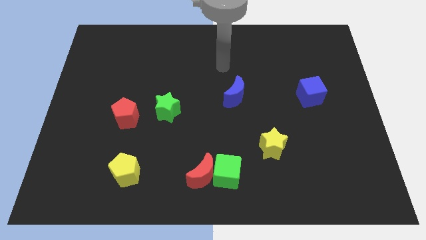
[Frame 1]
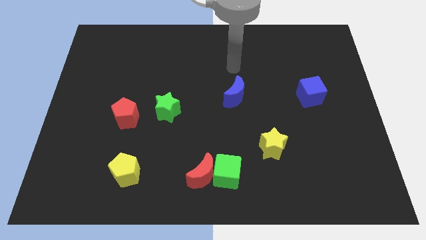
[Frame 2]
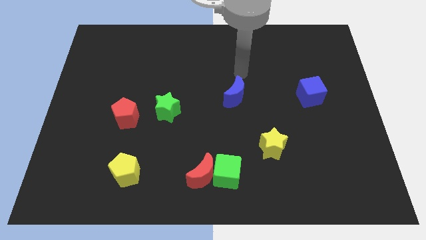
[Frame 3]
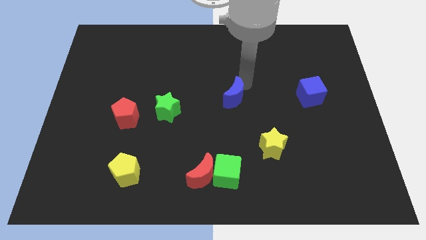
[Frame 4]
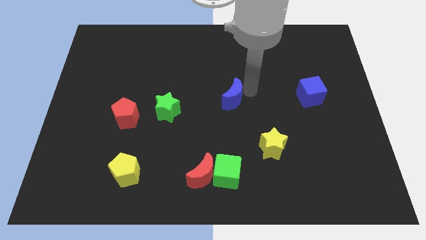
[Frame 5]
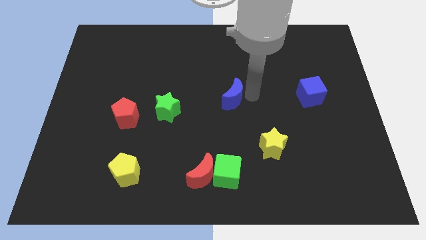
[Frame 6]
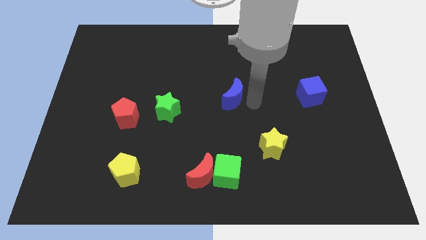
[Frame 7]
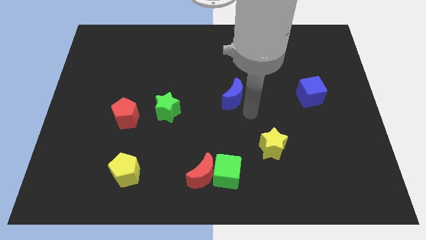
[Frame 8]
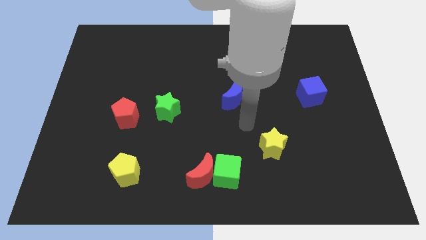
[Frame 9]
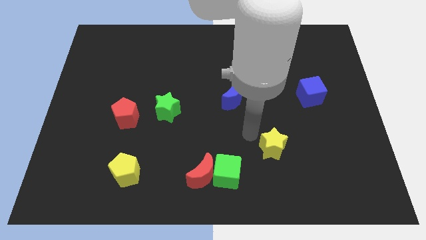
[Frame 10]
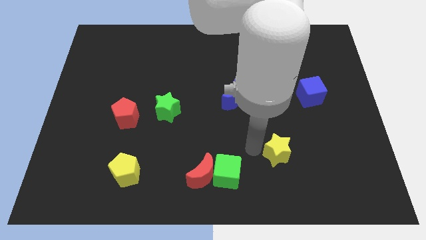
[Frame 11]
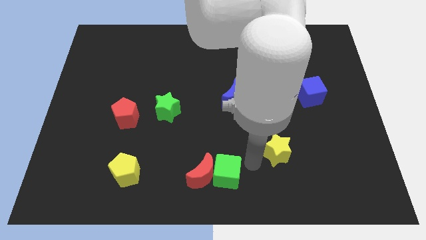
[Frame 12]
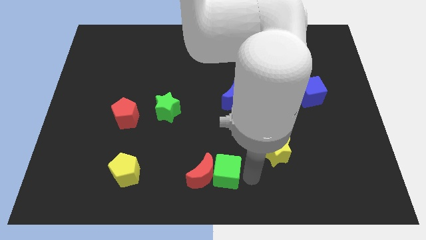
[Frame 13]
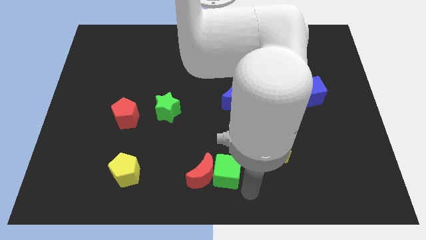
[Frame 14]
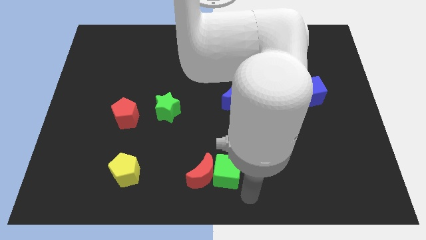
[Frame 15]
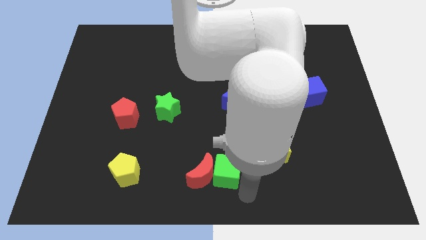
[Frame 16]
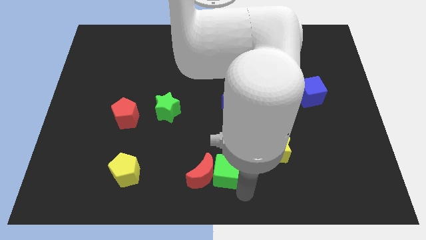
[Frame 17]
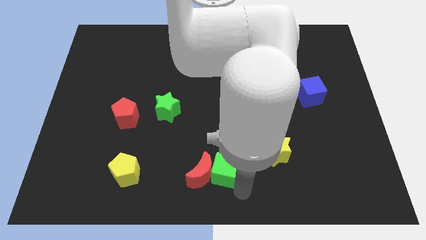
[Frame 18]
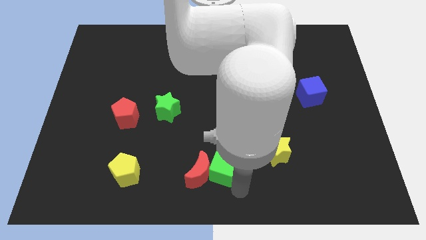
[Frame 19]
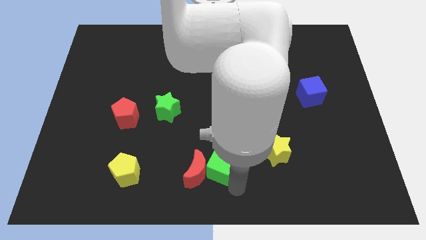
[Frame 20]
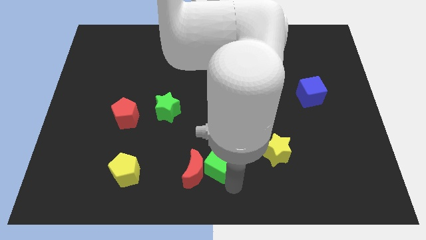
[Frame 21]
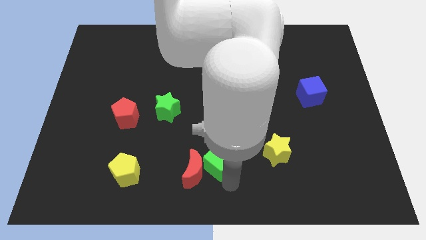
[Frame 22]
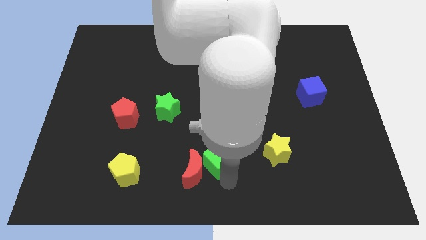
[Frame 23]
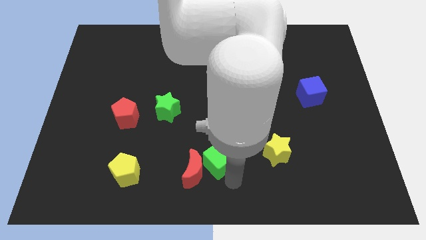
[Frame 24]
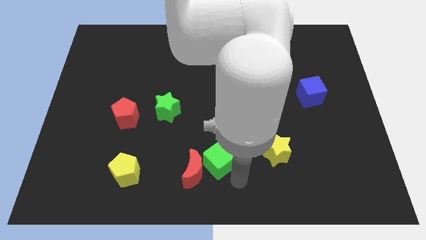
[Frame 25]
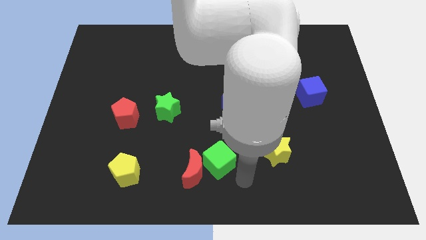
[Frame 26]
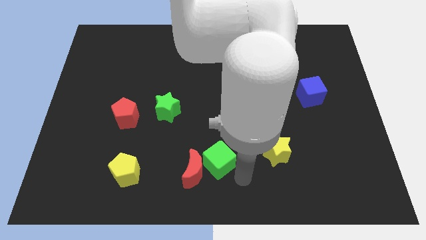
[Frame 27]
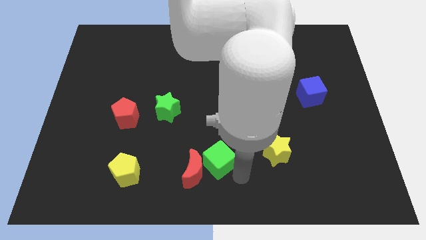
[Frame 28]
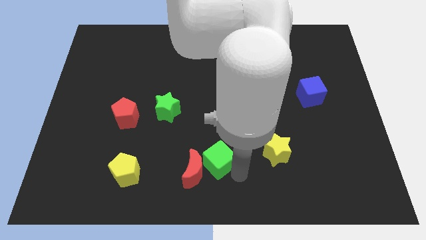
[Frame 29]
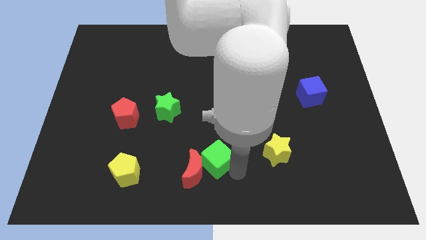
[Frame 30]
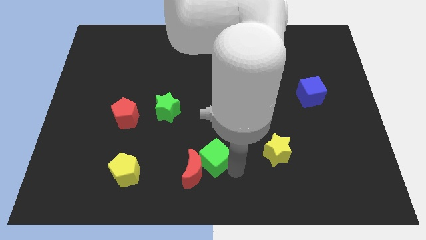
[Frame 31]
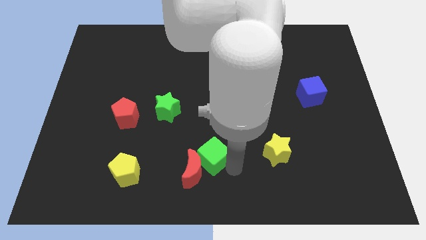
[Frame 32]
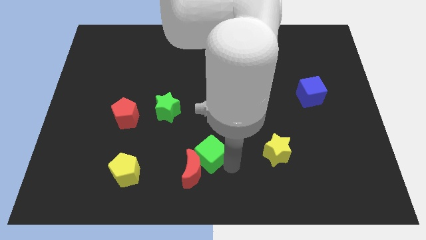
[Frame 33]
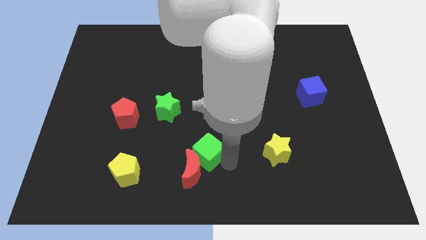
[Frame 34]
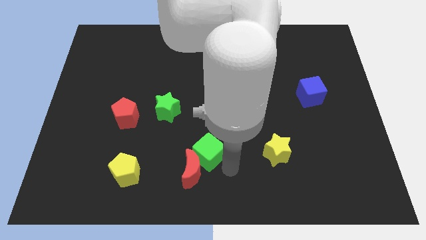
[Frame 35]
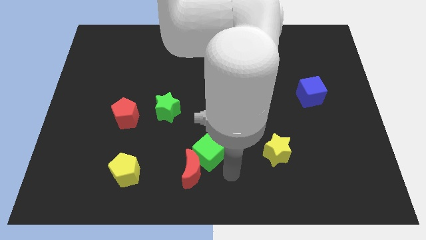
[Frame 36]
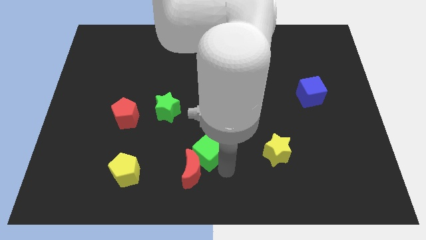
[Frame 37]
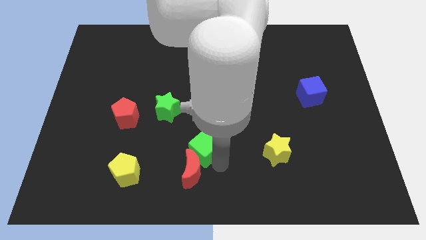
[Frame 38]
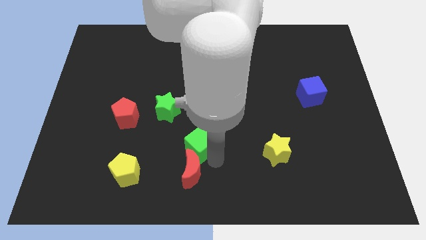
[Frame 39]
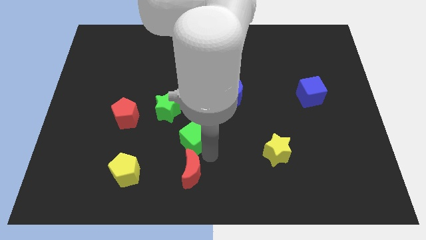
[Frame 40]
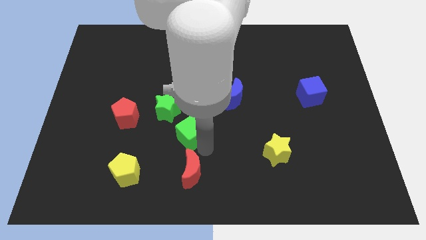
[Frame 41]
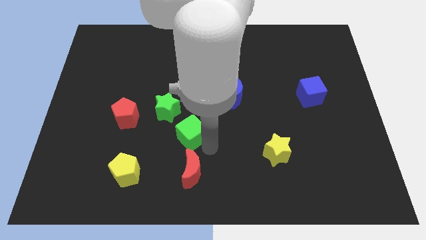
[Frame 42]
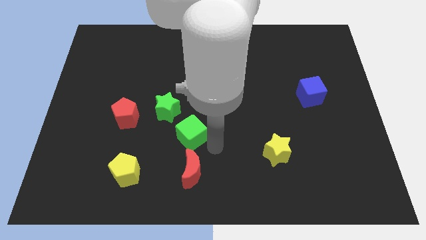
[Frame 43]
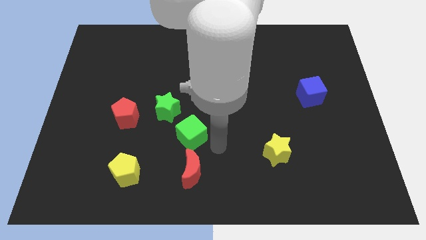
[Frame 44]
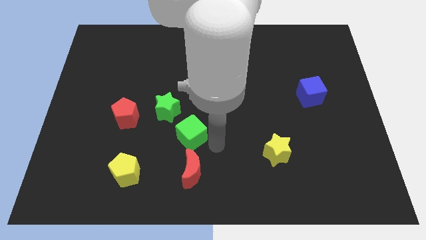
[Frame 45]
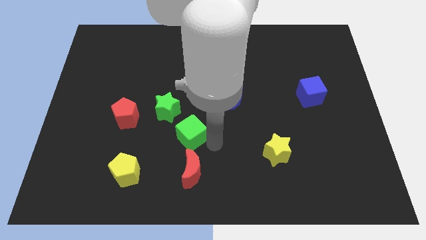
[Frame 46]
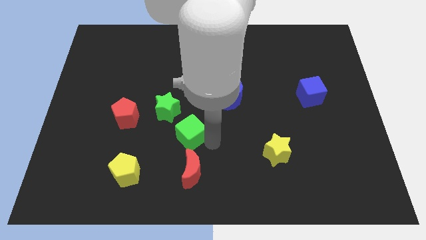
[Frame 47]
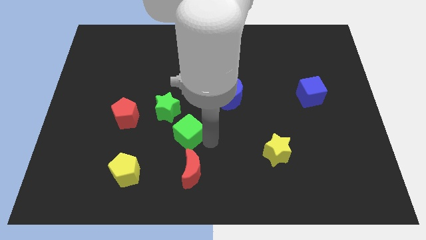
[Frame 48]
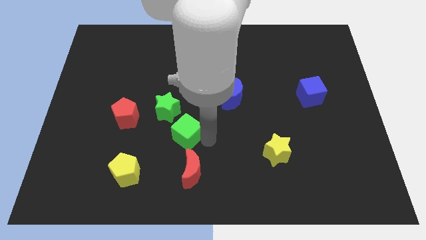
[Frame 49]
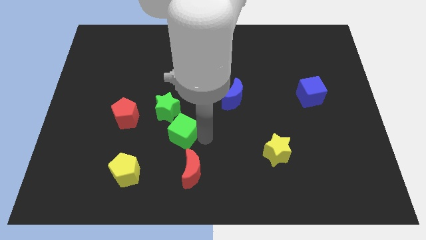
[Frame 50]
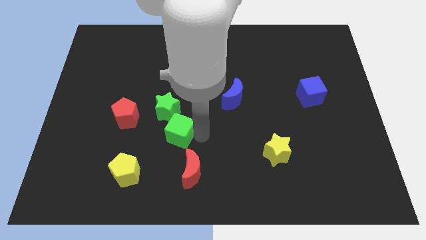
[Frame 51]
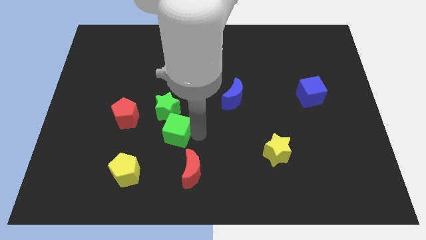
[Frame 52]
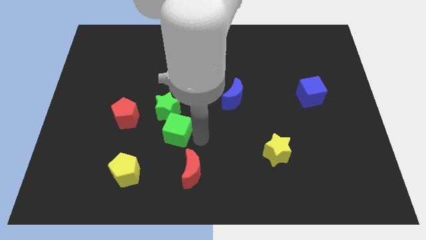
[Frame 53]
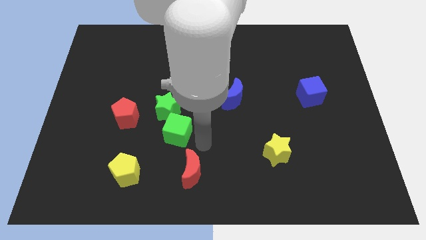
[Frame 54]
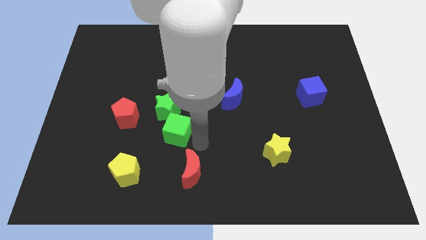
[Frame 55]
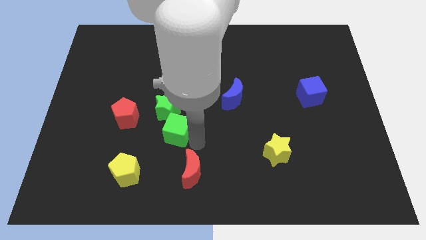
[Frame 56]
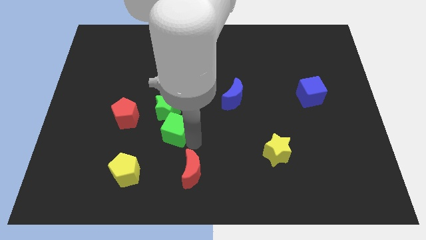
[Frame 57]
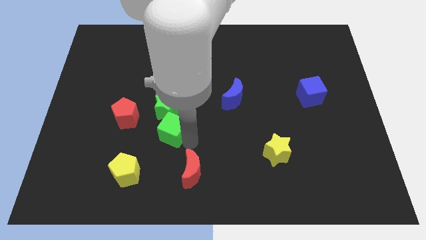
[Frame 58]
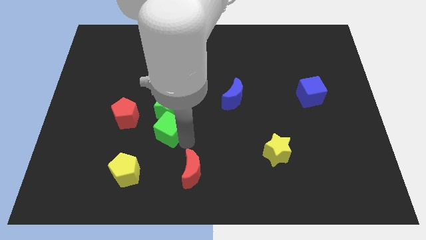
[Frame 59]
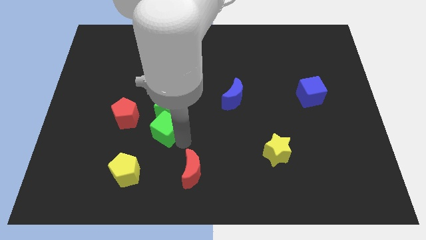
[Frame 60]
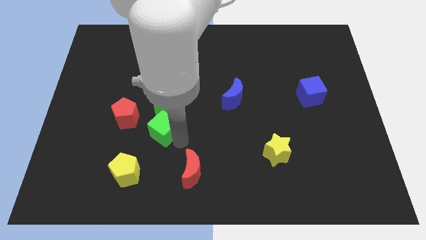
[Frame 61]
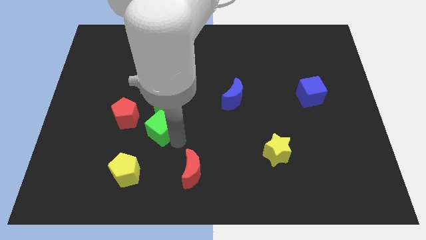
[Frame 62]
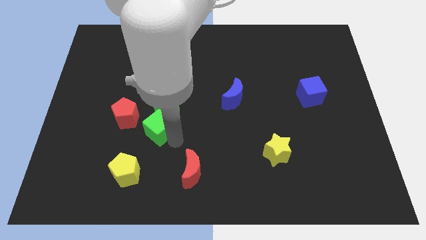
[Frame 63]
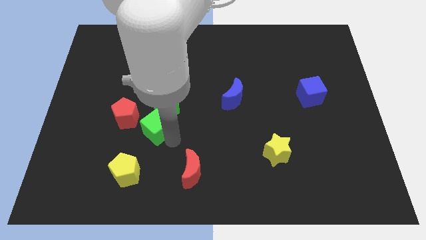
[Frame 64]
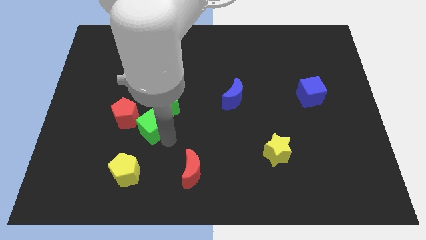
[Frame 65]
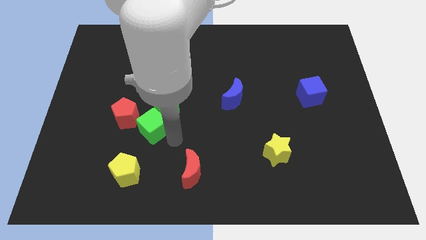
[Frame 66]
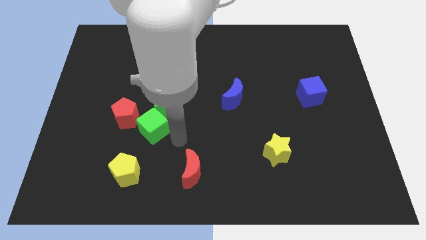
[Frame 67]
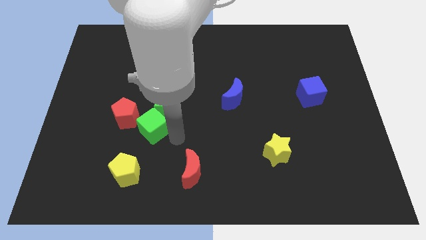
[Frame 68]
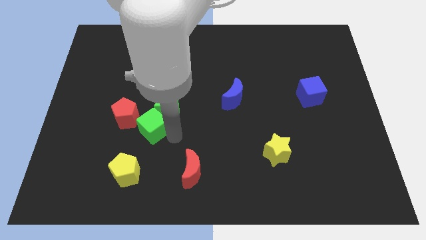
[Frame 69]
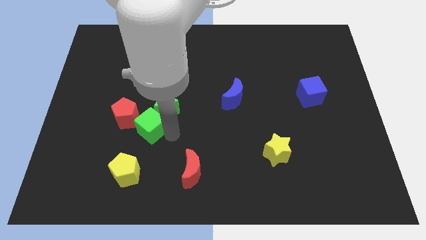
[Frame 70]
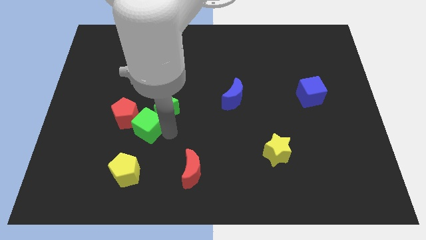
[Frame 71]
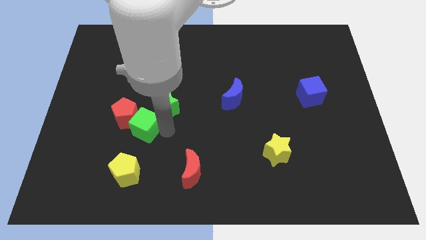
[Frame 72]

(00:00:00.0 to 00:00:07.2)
put the green cube close to the red pentagon
